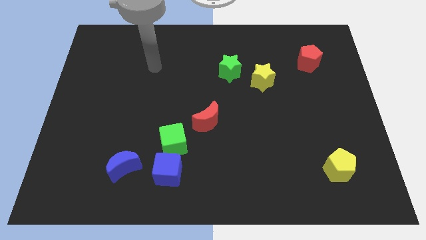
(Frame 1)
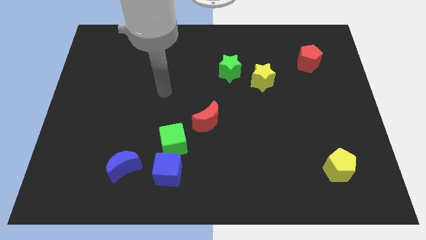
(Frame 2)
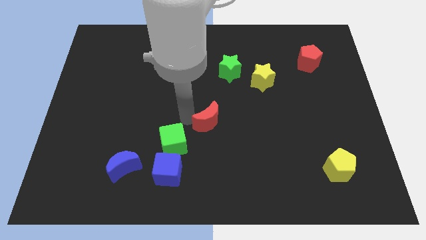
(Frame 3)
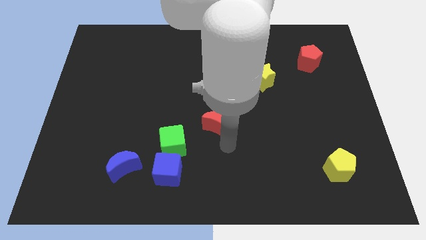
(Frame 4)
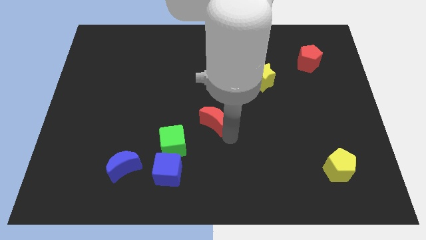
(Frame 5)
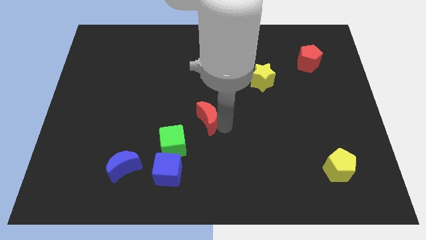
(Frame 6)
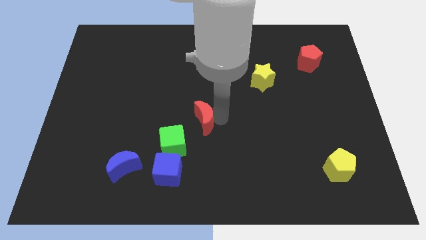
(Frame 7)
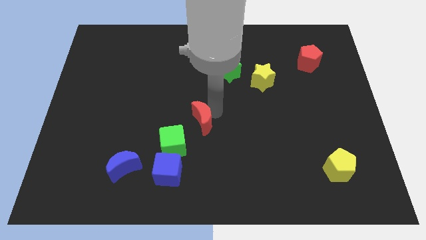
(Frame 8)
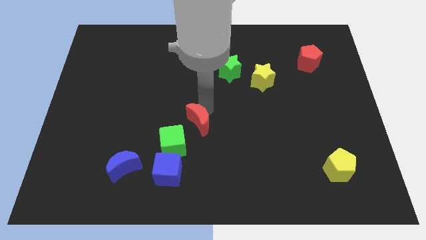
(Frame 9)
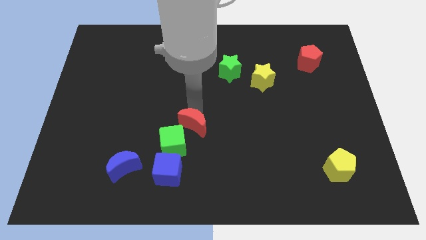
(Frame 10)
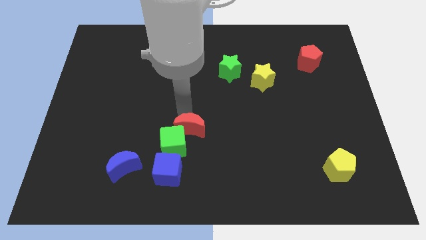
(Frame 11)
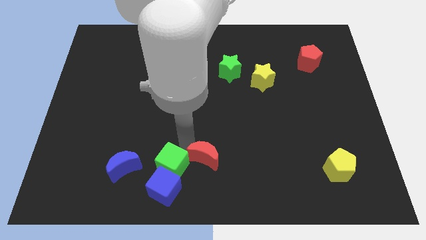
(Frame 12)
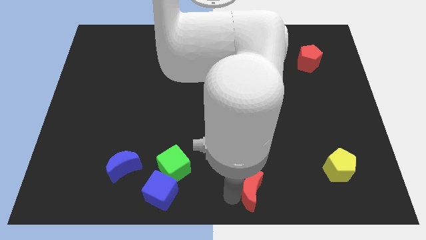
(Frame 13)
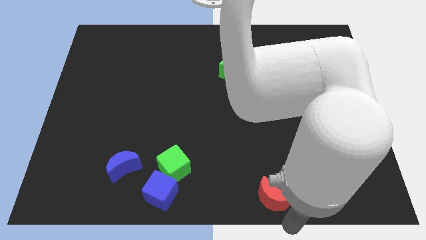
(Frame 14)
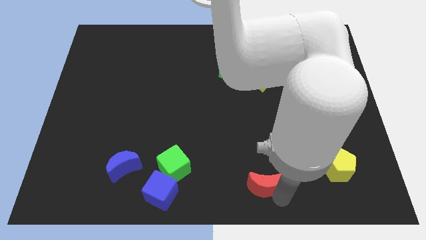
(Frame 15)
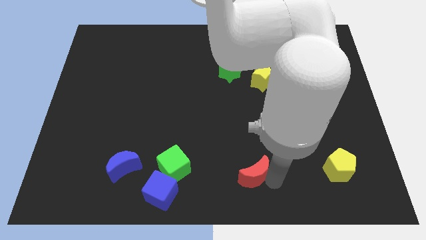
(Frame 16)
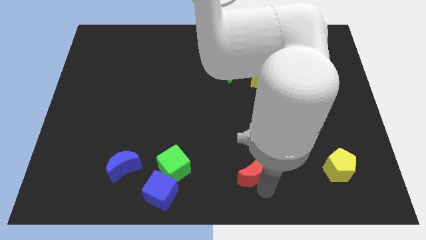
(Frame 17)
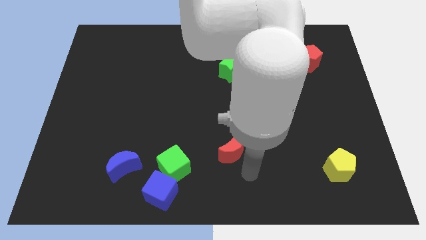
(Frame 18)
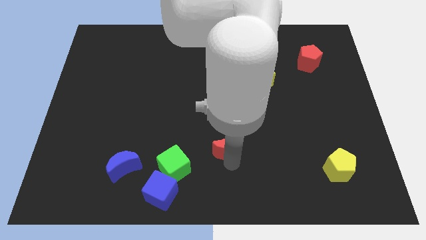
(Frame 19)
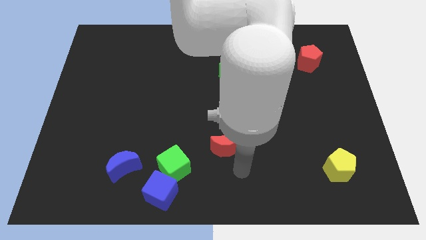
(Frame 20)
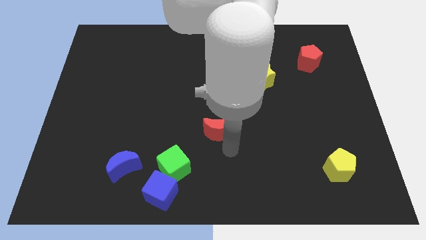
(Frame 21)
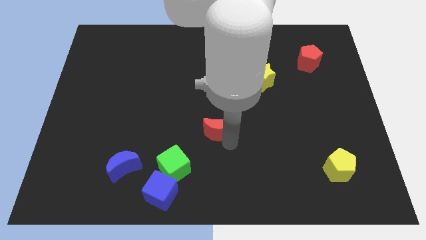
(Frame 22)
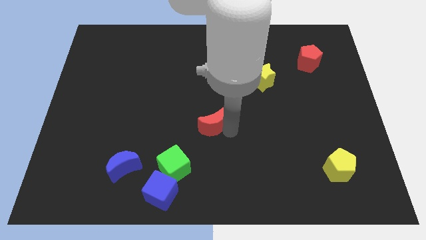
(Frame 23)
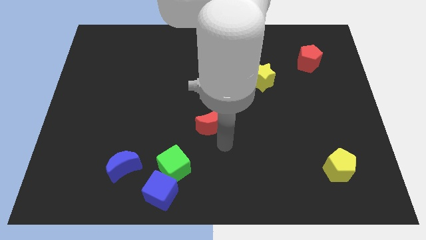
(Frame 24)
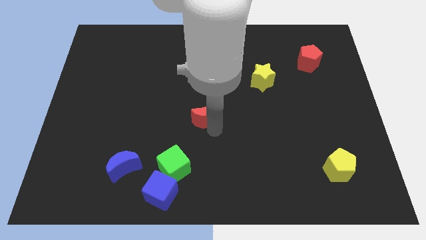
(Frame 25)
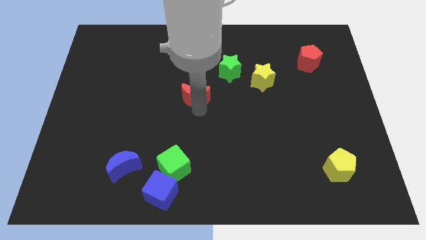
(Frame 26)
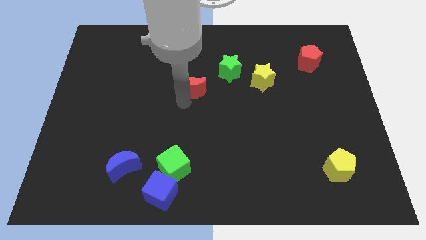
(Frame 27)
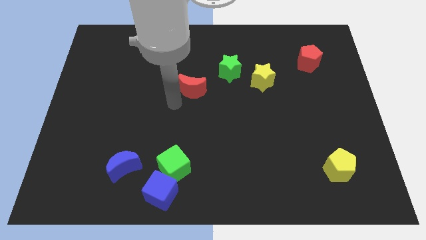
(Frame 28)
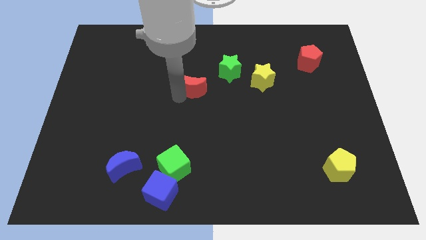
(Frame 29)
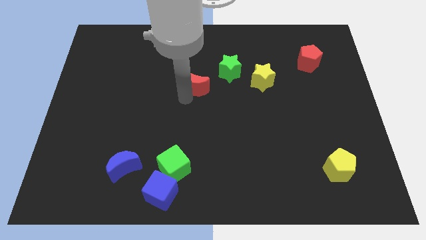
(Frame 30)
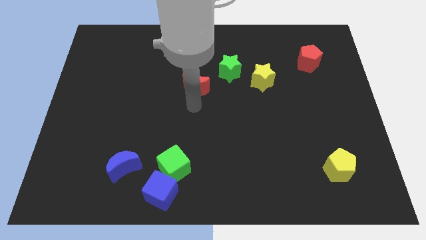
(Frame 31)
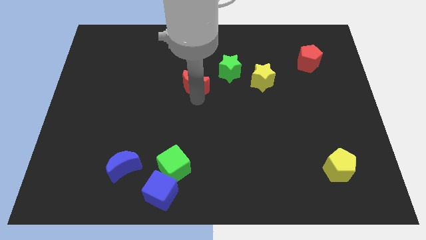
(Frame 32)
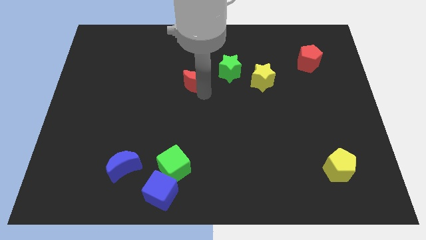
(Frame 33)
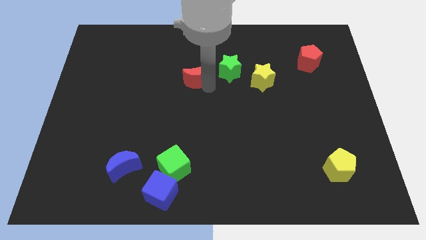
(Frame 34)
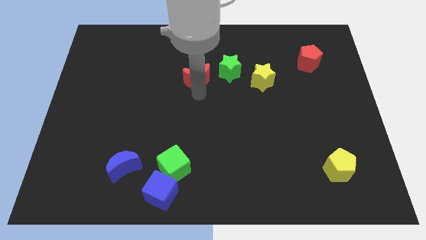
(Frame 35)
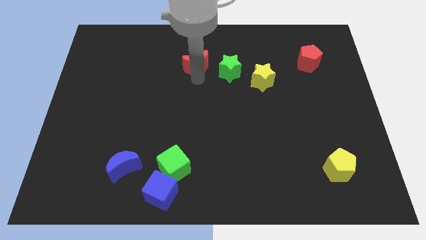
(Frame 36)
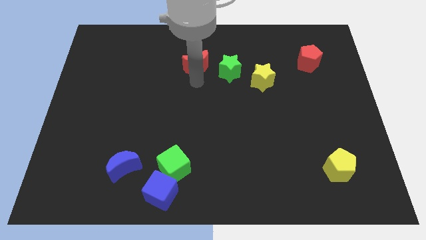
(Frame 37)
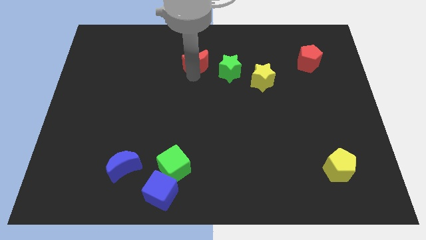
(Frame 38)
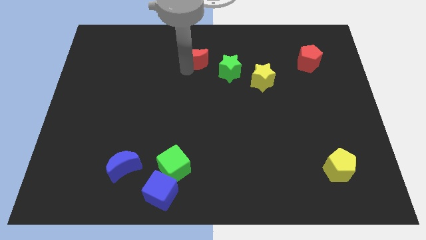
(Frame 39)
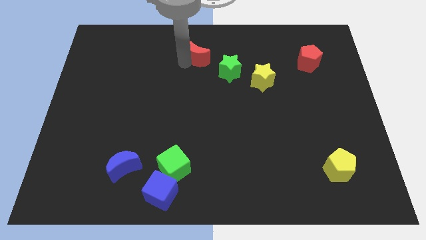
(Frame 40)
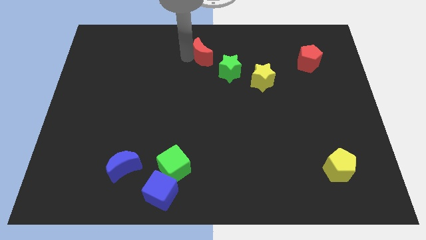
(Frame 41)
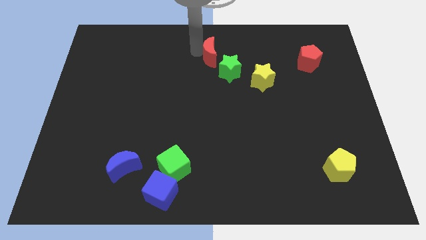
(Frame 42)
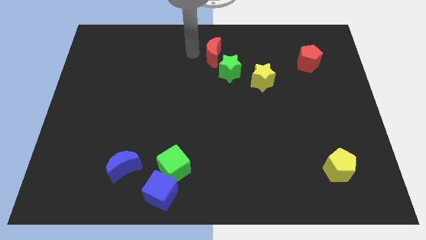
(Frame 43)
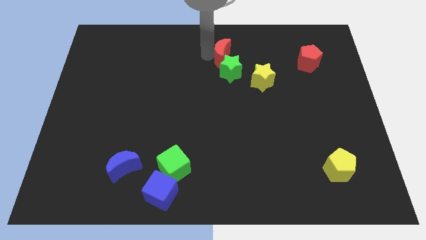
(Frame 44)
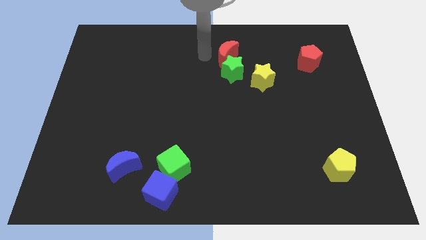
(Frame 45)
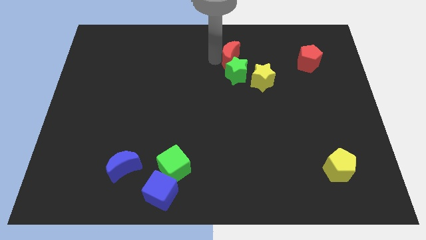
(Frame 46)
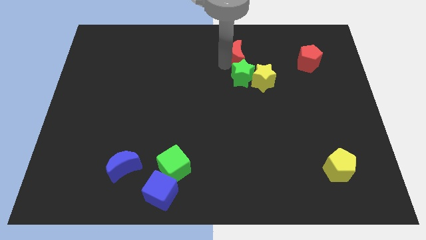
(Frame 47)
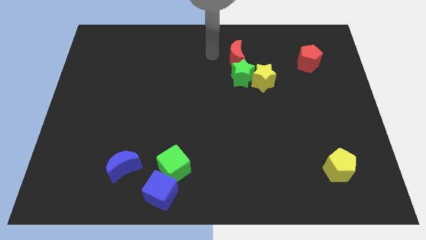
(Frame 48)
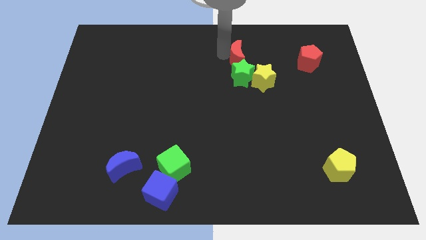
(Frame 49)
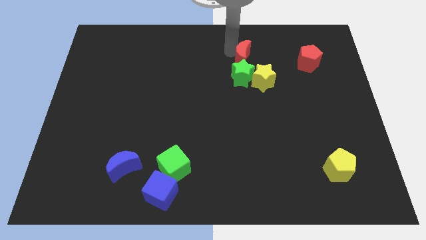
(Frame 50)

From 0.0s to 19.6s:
put the red moon to the top right side of the green star

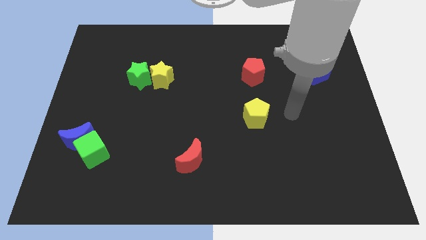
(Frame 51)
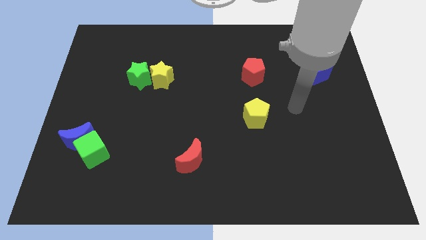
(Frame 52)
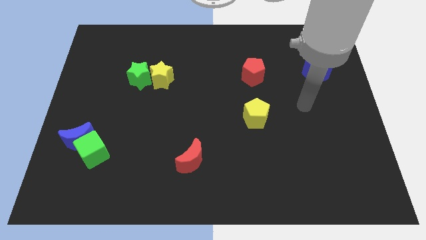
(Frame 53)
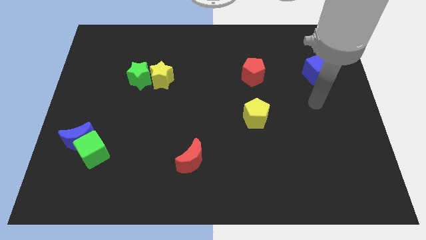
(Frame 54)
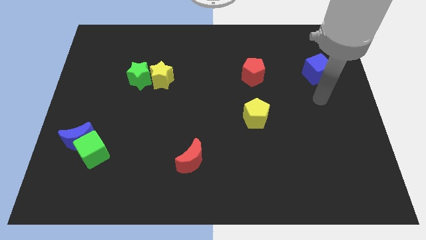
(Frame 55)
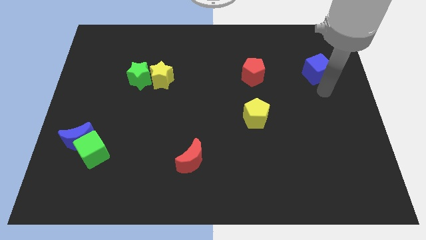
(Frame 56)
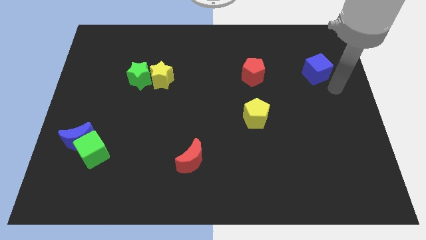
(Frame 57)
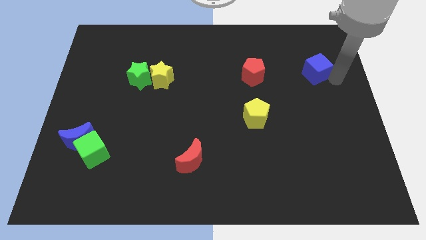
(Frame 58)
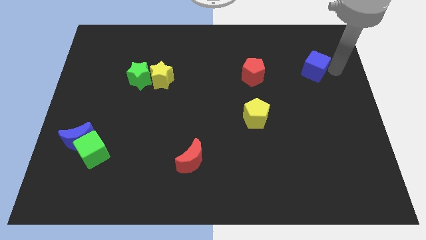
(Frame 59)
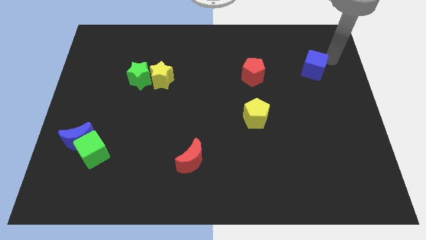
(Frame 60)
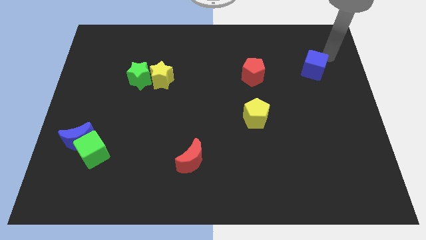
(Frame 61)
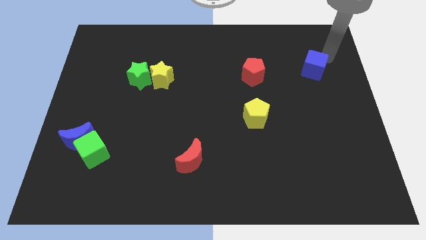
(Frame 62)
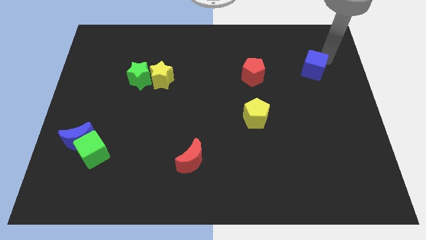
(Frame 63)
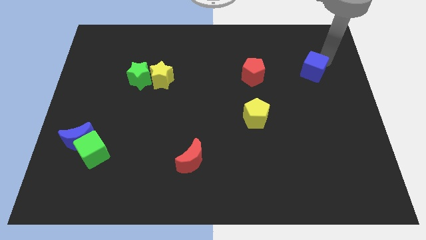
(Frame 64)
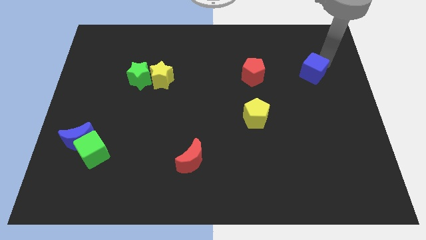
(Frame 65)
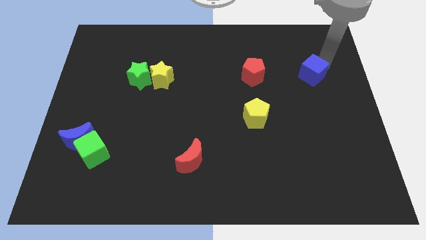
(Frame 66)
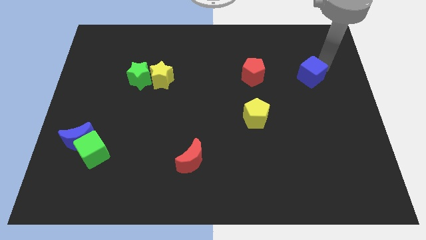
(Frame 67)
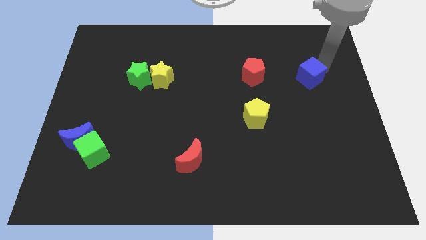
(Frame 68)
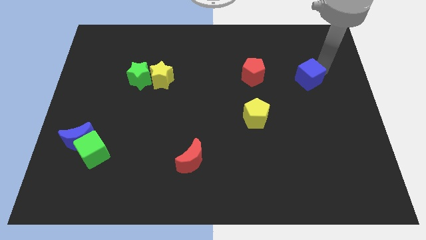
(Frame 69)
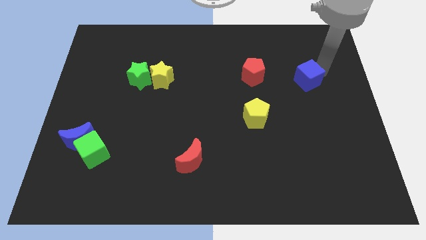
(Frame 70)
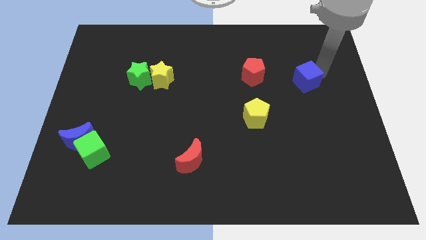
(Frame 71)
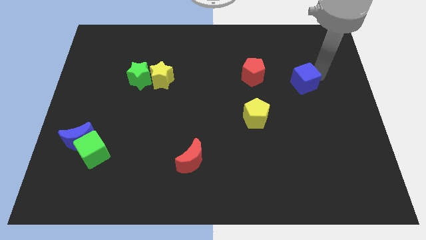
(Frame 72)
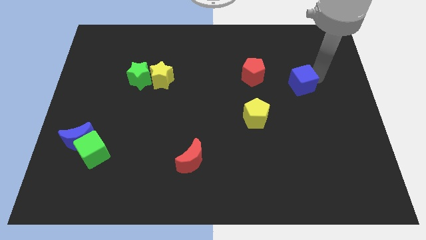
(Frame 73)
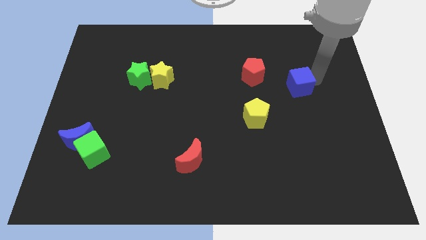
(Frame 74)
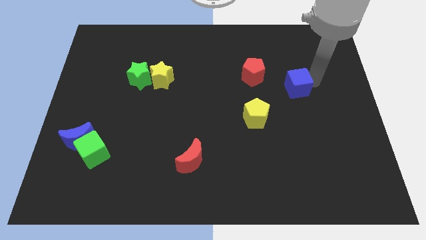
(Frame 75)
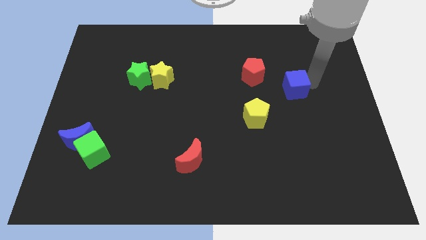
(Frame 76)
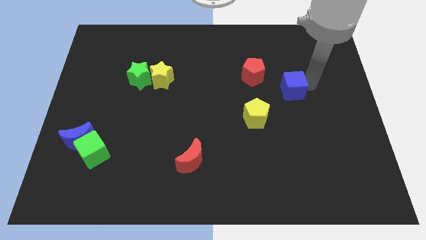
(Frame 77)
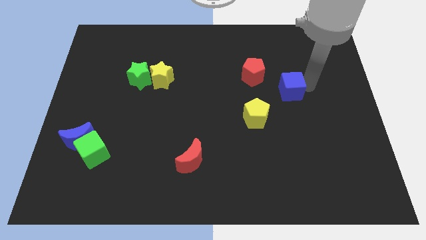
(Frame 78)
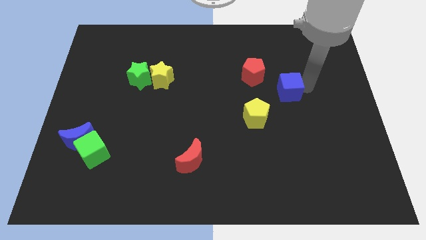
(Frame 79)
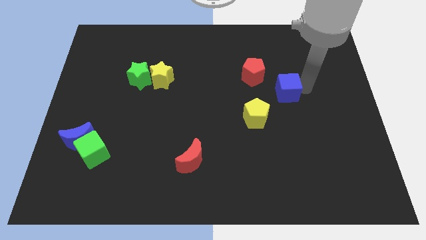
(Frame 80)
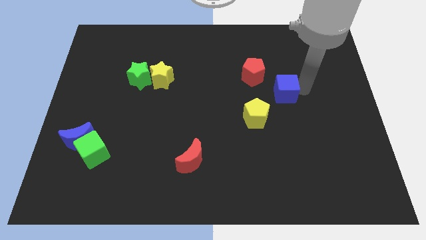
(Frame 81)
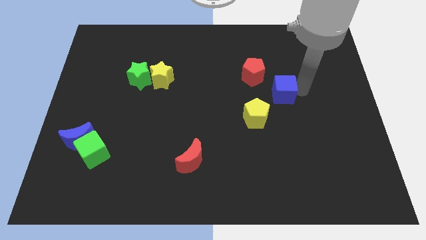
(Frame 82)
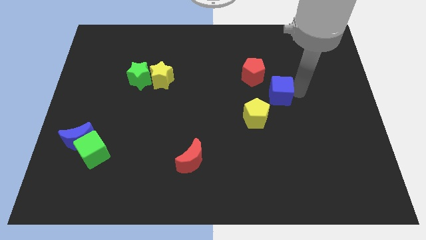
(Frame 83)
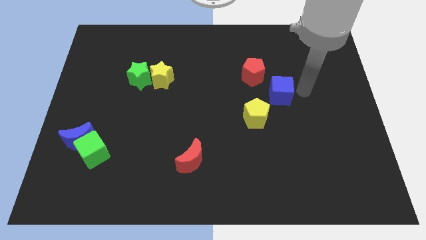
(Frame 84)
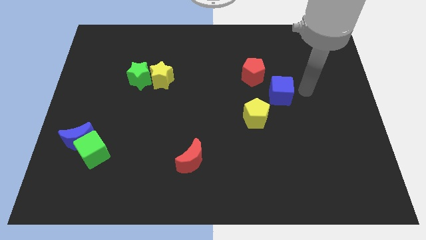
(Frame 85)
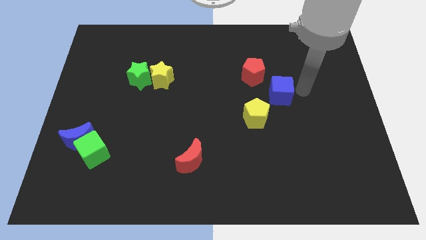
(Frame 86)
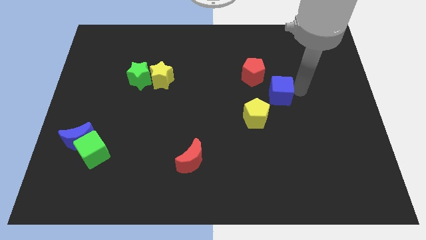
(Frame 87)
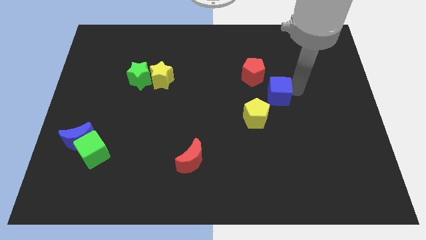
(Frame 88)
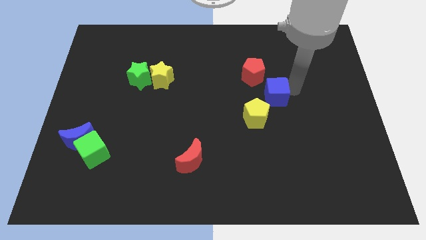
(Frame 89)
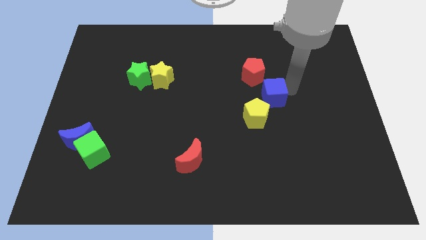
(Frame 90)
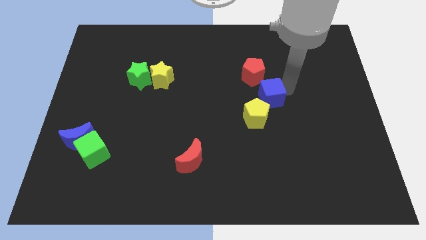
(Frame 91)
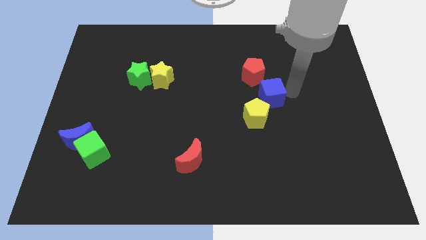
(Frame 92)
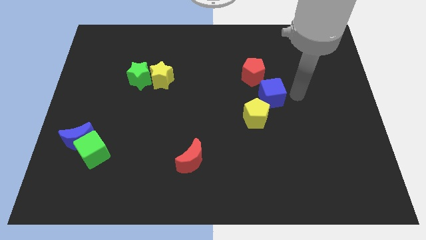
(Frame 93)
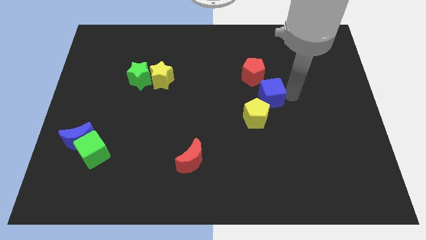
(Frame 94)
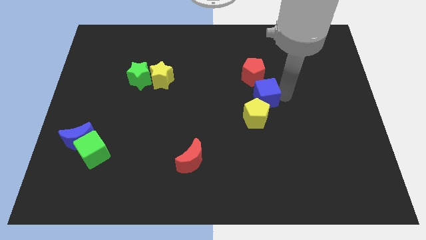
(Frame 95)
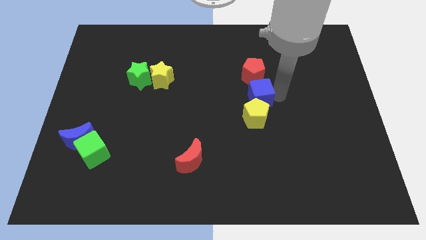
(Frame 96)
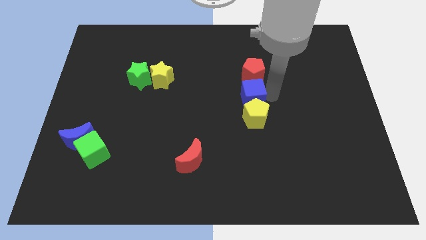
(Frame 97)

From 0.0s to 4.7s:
move the blue cube to the top left side of the yellow pentagon
